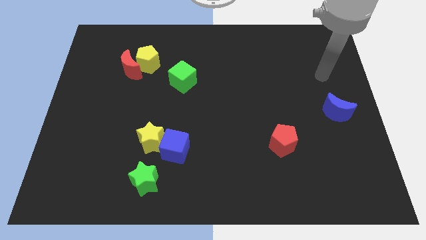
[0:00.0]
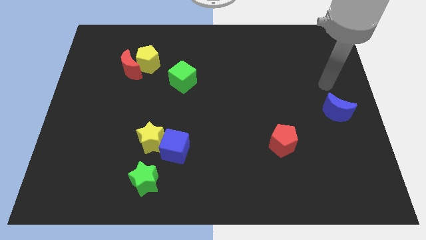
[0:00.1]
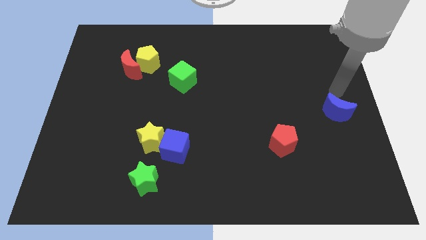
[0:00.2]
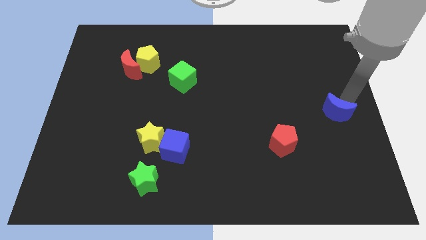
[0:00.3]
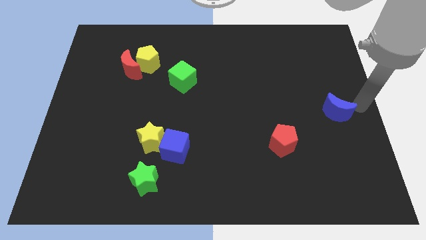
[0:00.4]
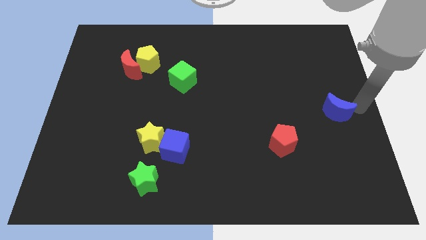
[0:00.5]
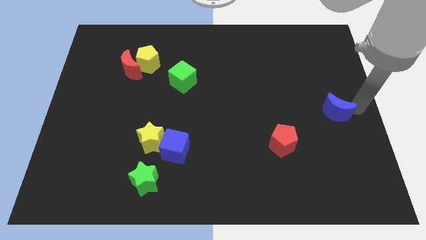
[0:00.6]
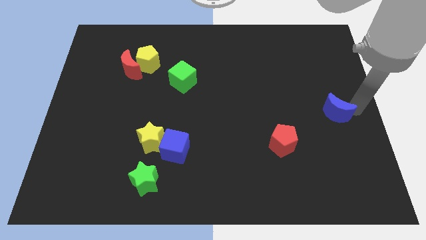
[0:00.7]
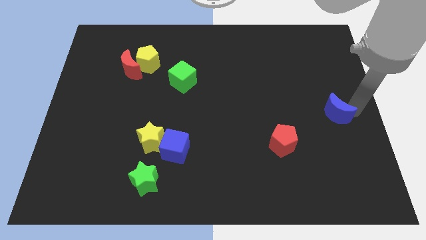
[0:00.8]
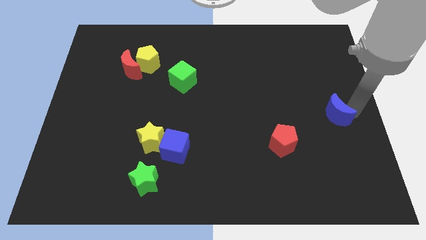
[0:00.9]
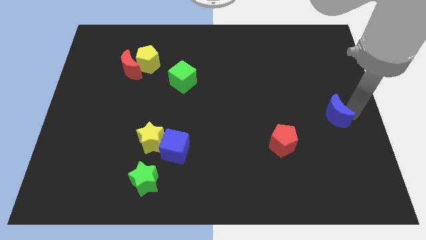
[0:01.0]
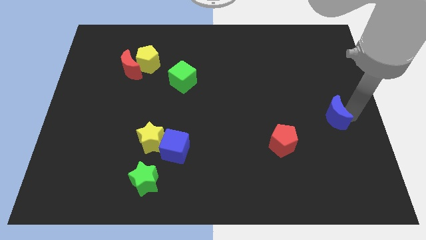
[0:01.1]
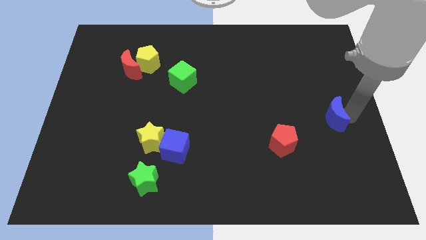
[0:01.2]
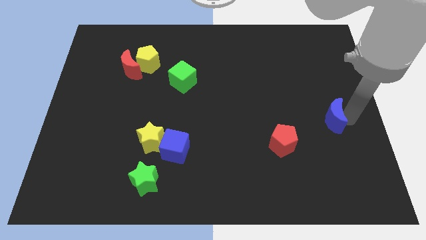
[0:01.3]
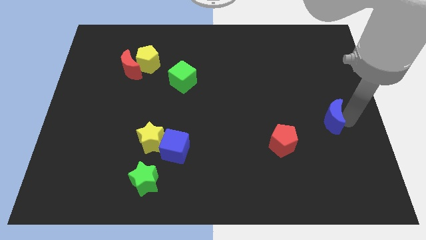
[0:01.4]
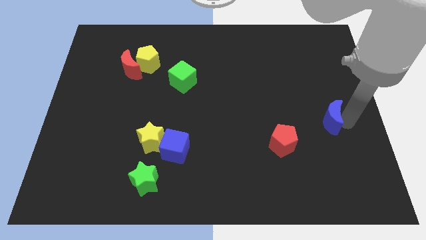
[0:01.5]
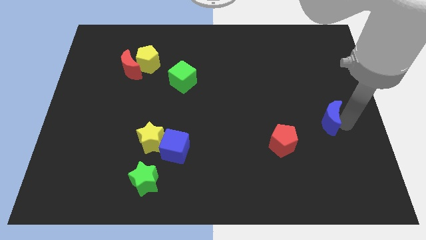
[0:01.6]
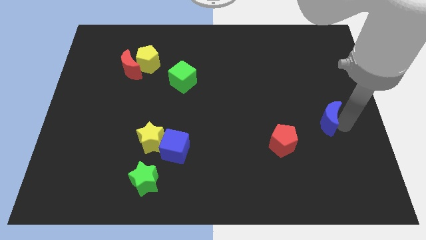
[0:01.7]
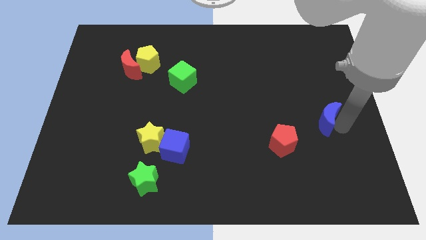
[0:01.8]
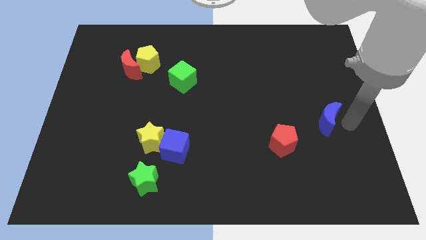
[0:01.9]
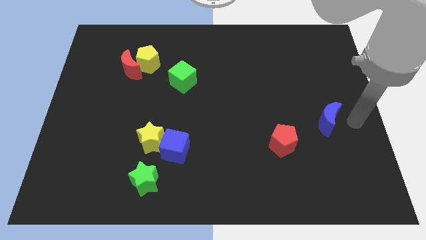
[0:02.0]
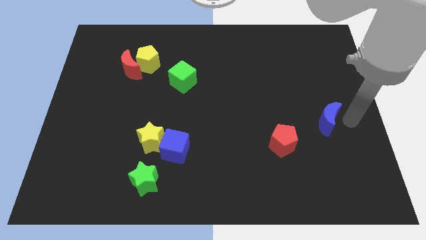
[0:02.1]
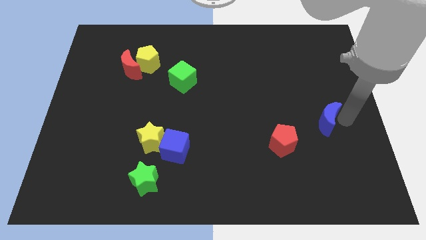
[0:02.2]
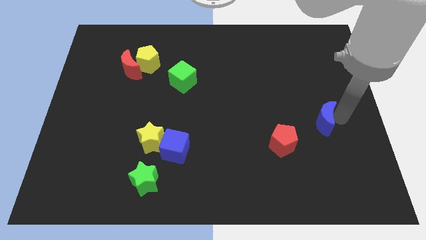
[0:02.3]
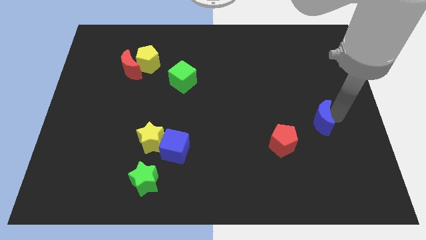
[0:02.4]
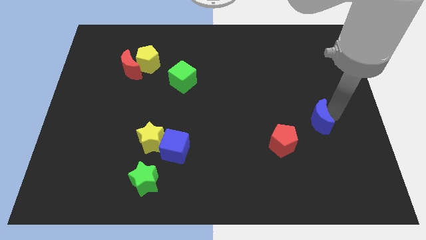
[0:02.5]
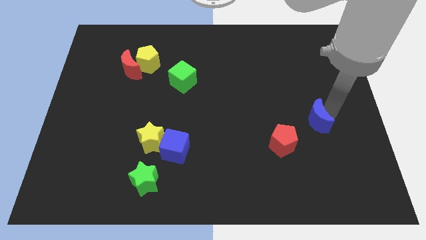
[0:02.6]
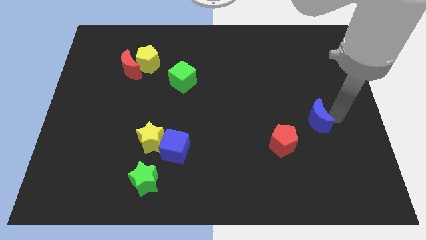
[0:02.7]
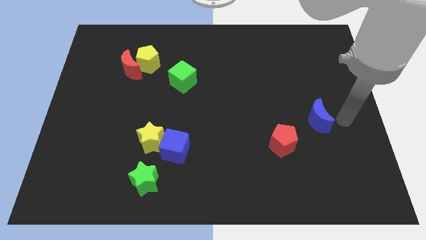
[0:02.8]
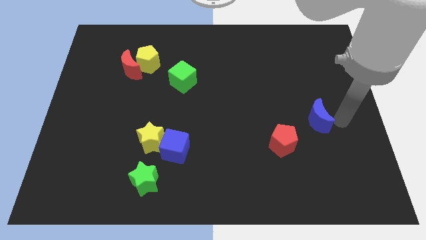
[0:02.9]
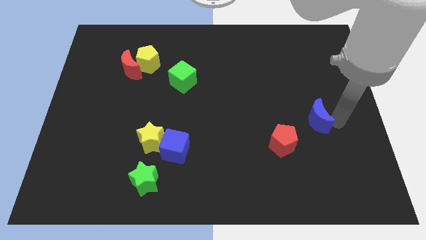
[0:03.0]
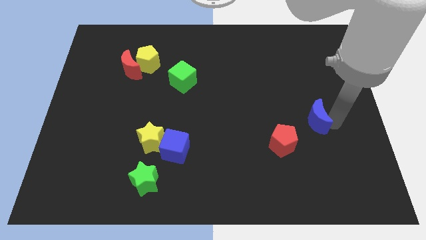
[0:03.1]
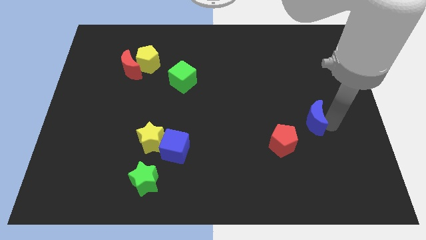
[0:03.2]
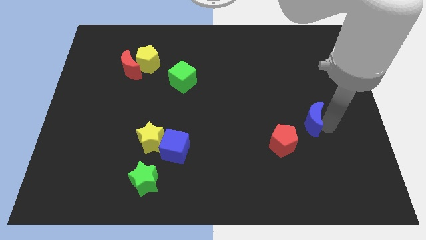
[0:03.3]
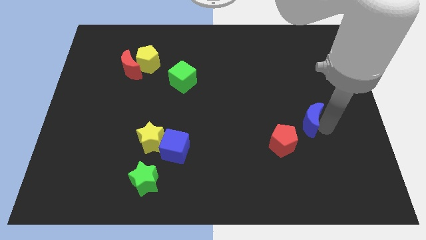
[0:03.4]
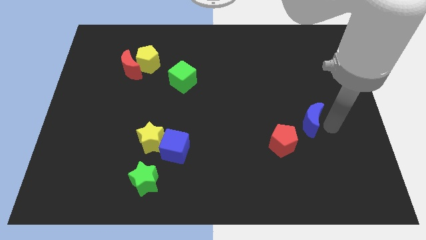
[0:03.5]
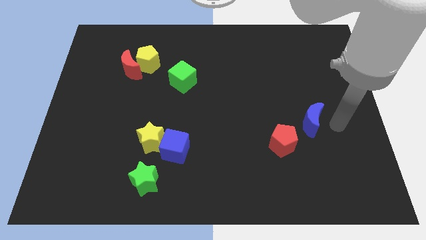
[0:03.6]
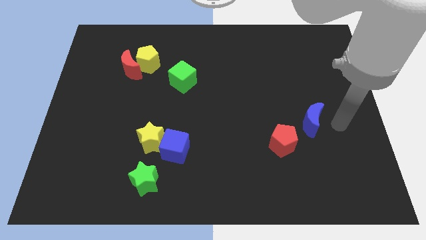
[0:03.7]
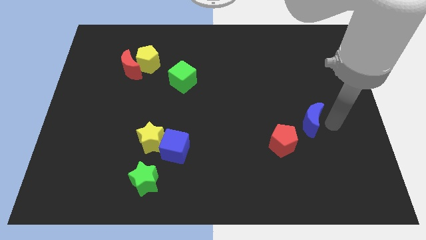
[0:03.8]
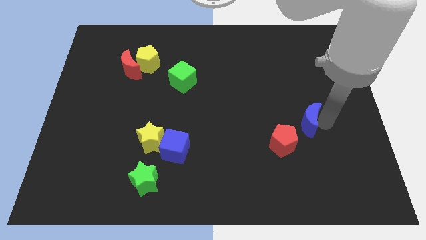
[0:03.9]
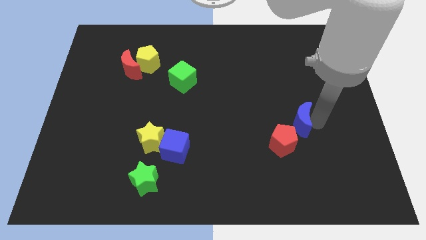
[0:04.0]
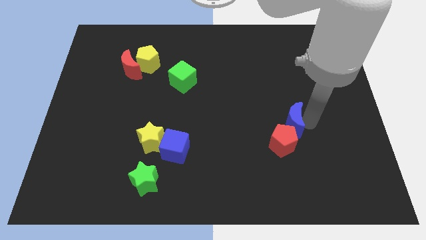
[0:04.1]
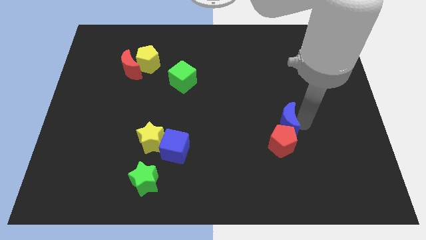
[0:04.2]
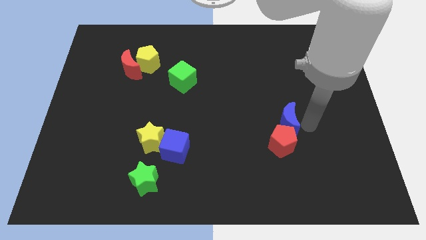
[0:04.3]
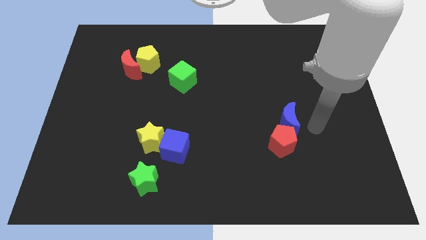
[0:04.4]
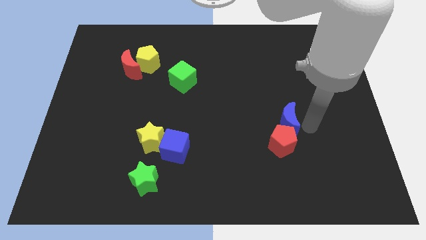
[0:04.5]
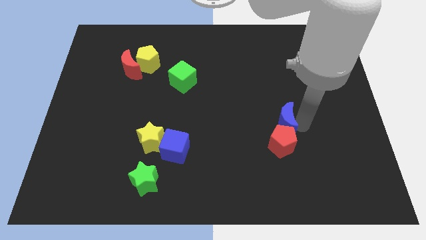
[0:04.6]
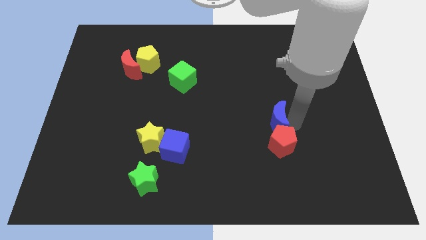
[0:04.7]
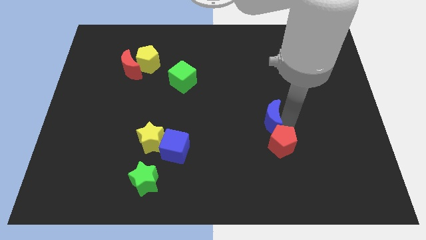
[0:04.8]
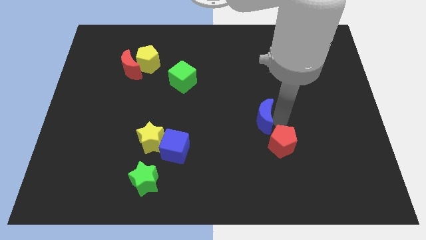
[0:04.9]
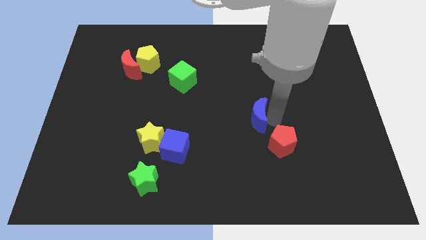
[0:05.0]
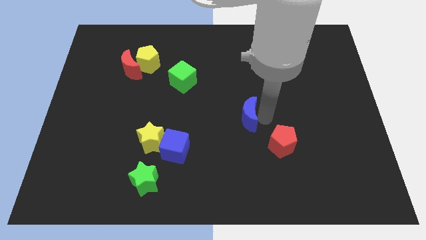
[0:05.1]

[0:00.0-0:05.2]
slide the blue moon to the left

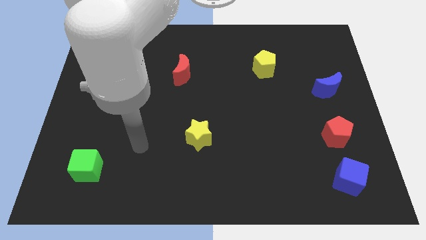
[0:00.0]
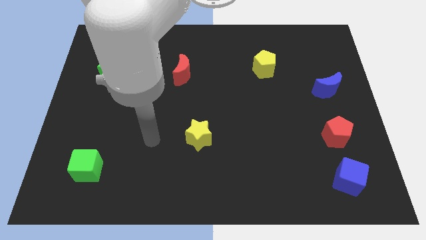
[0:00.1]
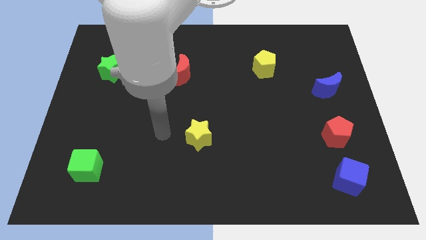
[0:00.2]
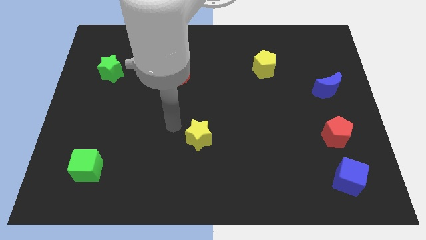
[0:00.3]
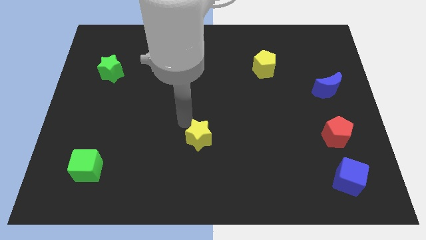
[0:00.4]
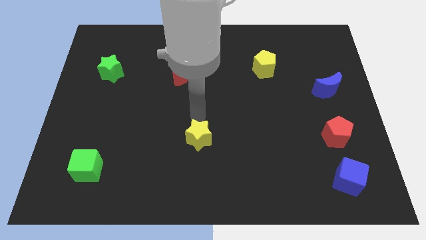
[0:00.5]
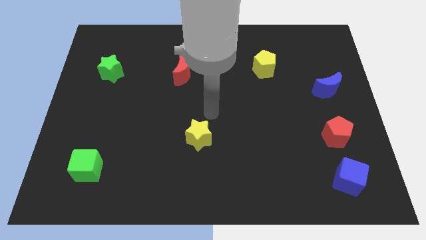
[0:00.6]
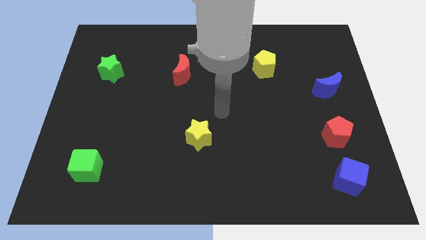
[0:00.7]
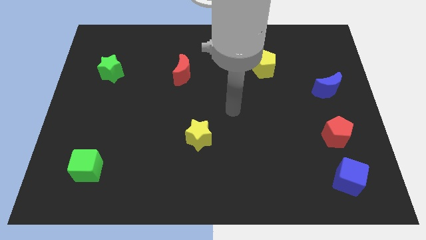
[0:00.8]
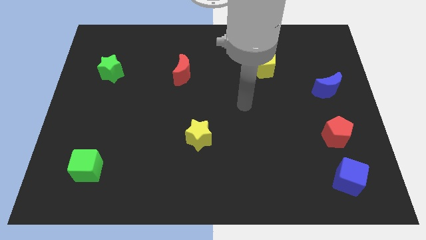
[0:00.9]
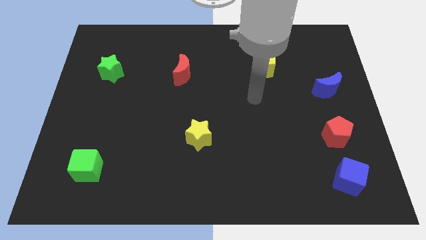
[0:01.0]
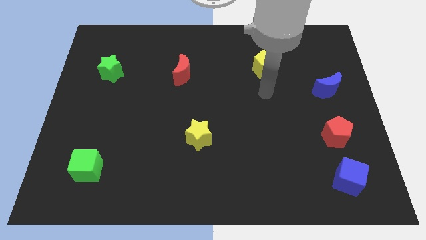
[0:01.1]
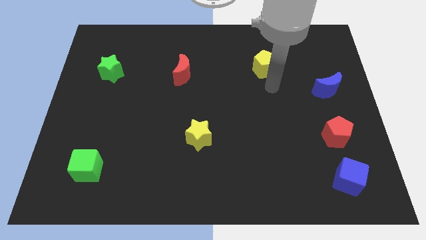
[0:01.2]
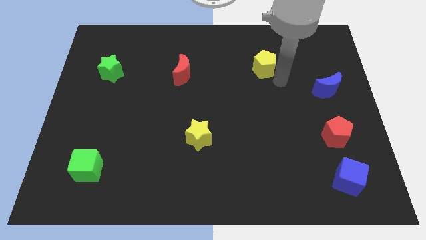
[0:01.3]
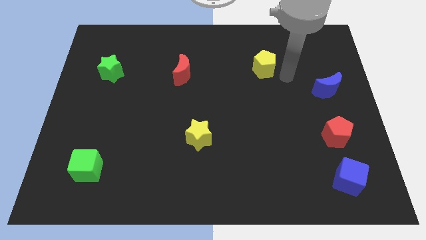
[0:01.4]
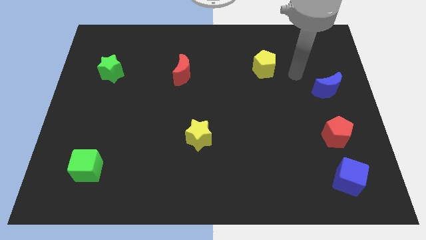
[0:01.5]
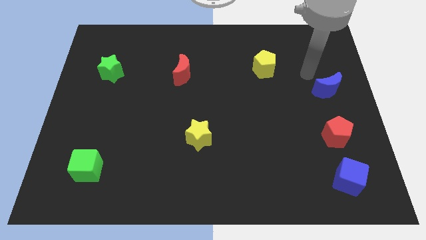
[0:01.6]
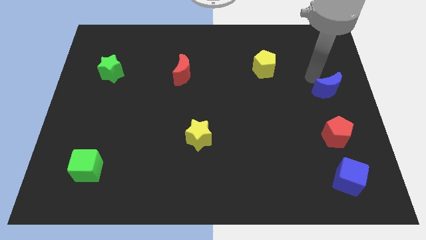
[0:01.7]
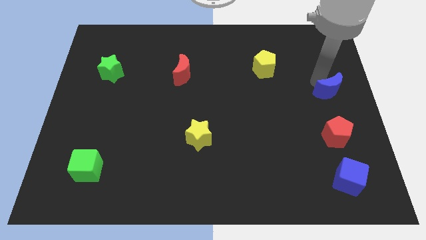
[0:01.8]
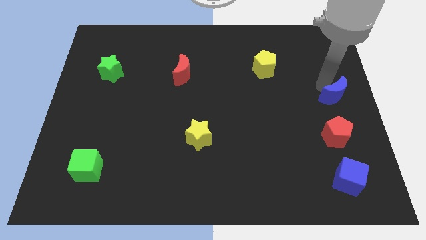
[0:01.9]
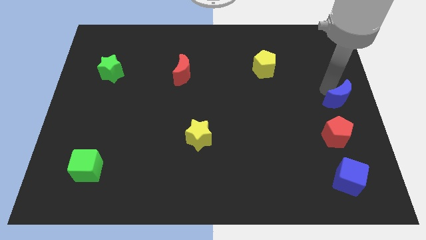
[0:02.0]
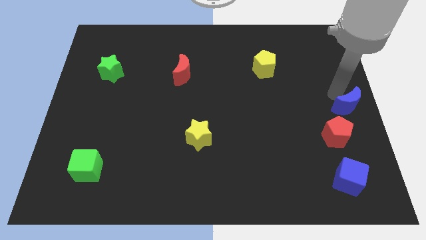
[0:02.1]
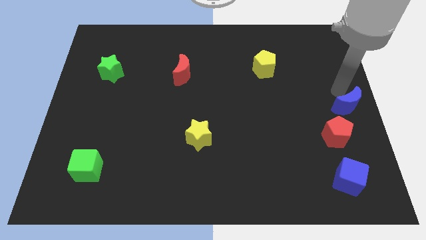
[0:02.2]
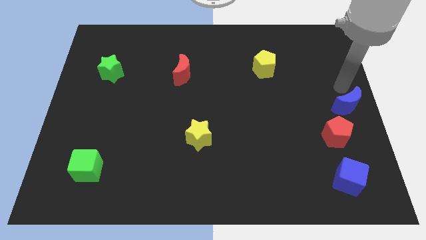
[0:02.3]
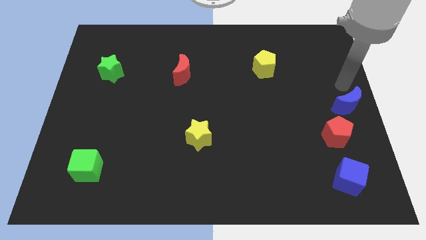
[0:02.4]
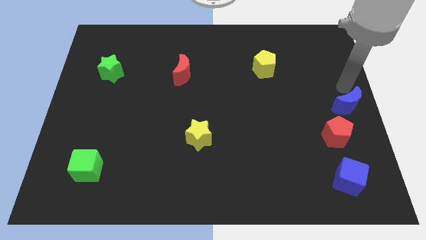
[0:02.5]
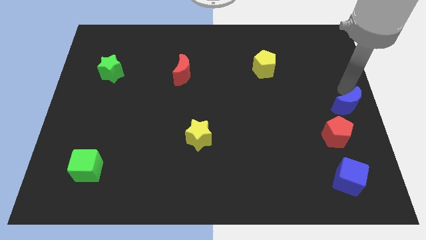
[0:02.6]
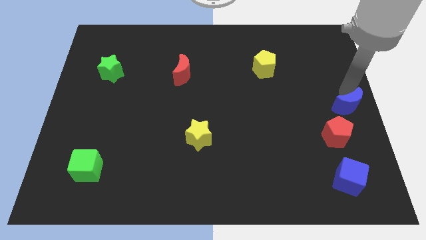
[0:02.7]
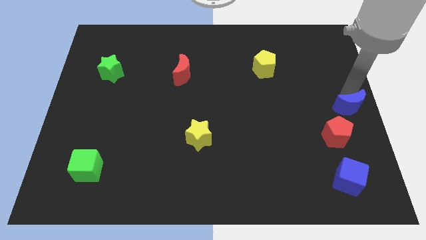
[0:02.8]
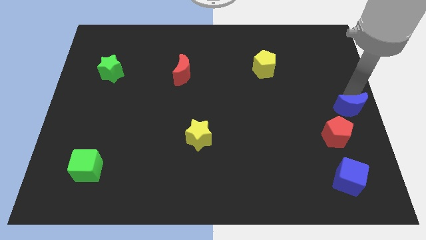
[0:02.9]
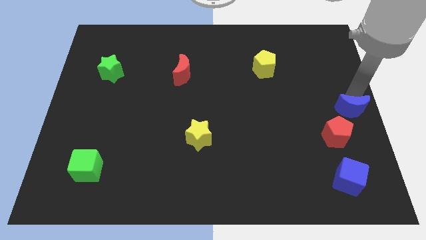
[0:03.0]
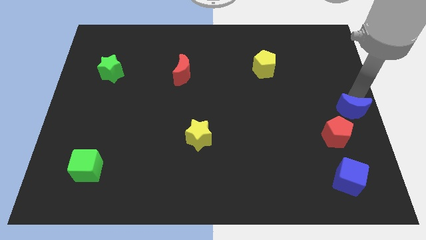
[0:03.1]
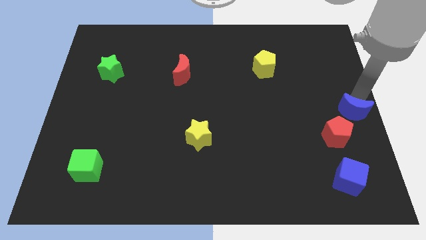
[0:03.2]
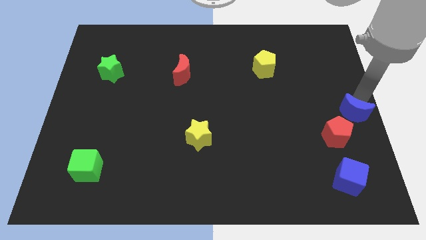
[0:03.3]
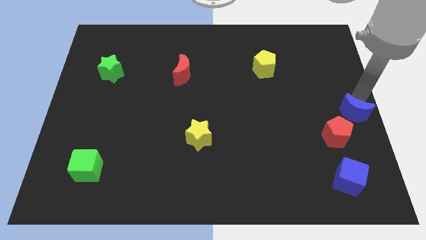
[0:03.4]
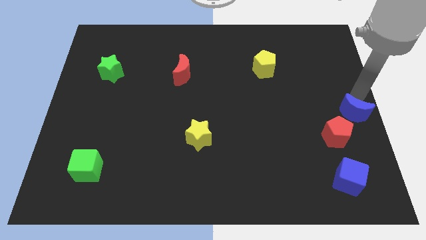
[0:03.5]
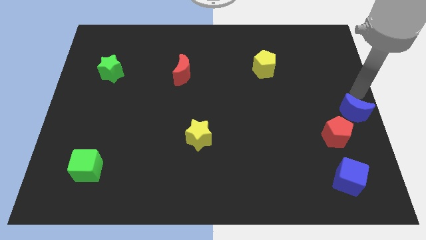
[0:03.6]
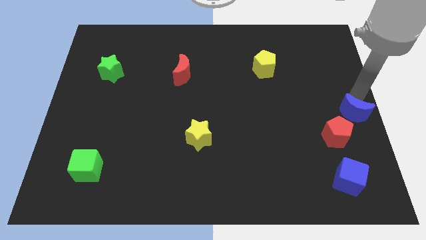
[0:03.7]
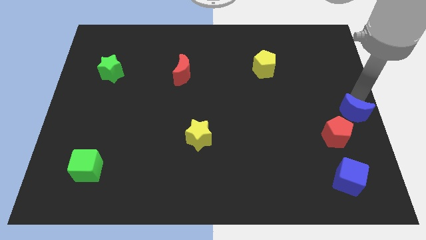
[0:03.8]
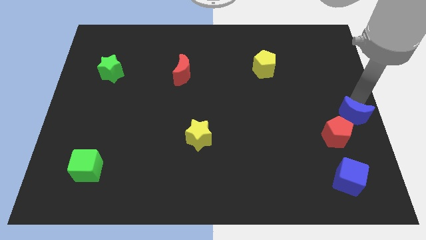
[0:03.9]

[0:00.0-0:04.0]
slide the blue moon somewhat down
